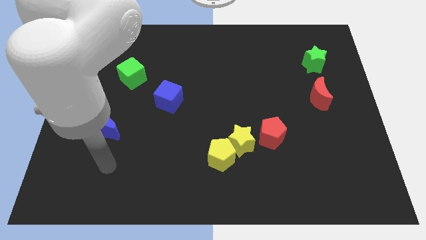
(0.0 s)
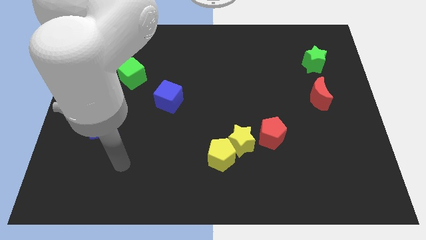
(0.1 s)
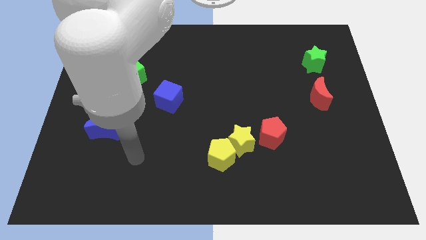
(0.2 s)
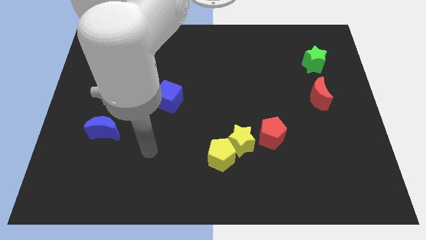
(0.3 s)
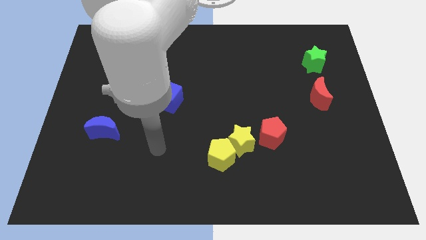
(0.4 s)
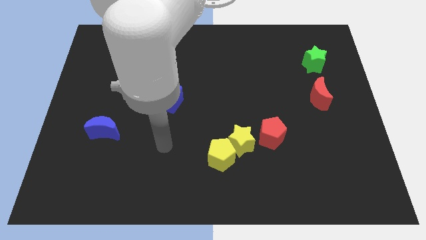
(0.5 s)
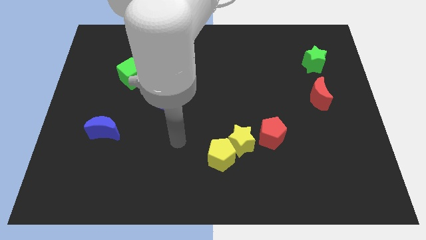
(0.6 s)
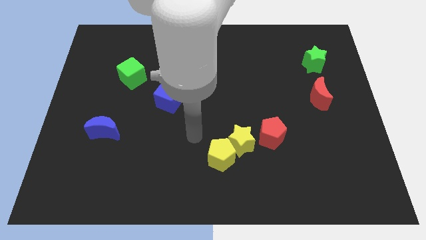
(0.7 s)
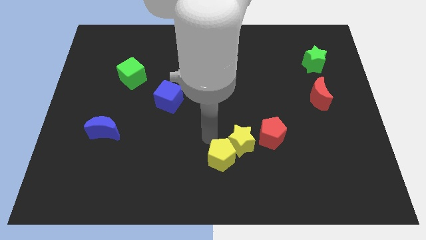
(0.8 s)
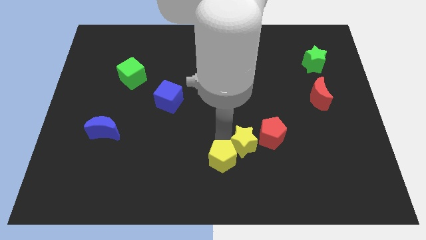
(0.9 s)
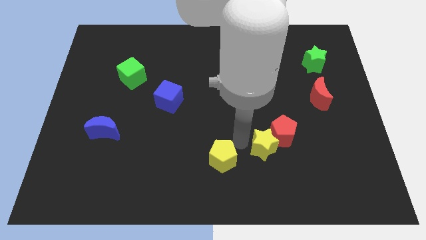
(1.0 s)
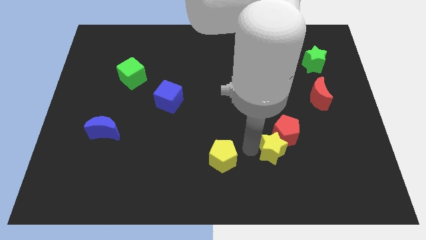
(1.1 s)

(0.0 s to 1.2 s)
separate the yellow pentagon from the yellow star

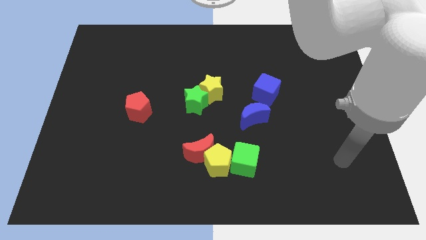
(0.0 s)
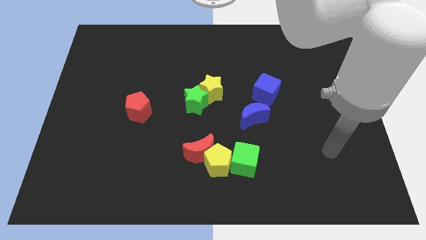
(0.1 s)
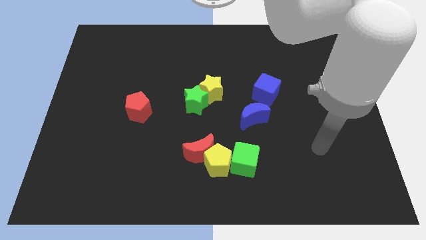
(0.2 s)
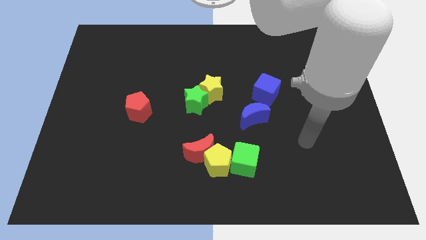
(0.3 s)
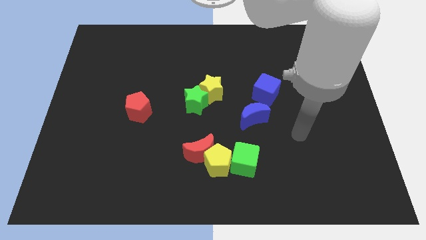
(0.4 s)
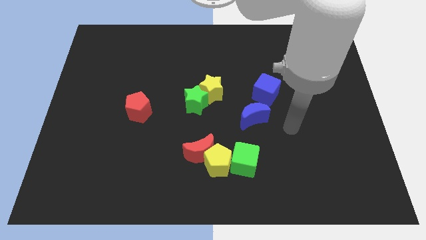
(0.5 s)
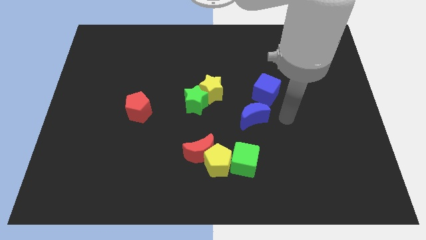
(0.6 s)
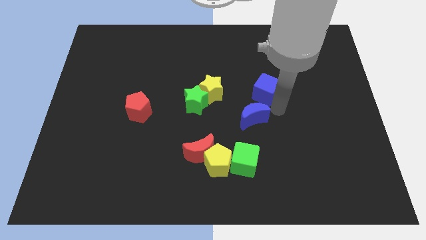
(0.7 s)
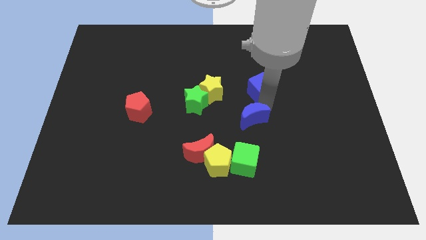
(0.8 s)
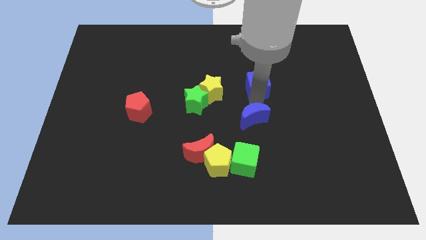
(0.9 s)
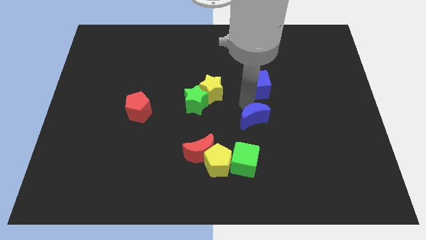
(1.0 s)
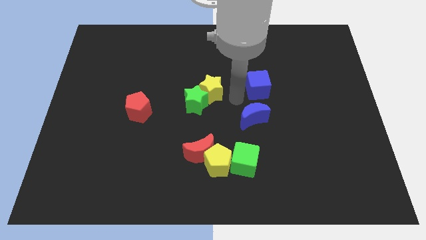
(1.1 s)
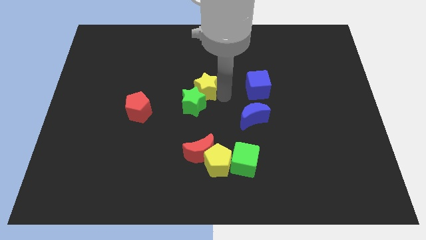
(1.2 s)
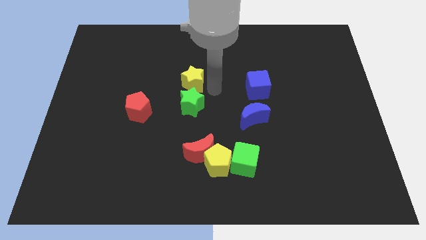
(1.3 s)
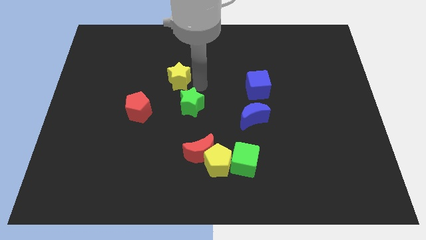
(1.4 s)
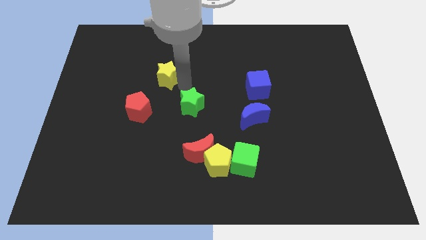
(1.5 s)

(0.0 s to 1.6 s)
separate the green star from the yellow star

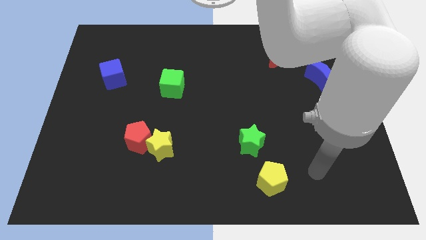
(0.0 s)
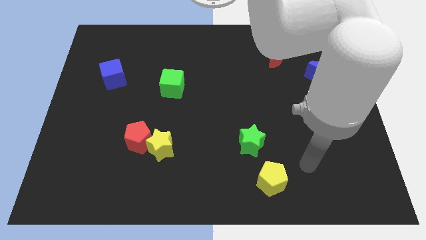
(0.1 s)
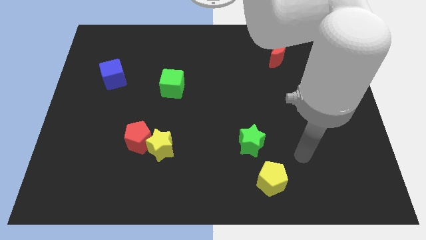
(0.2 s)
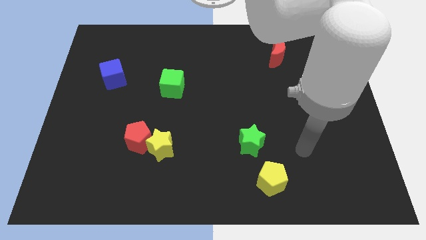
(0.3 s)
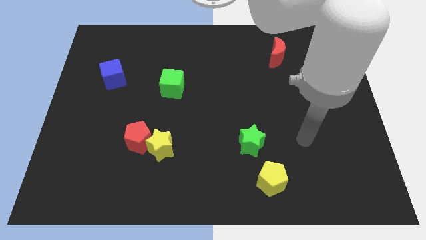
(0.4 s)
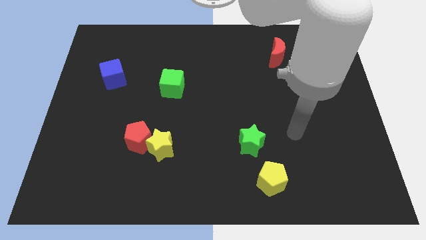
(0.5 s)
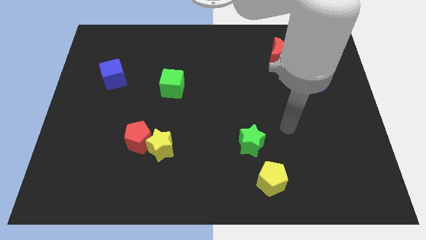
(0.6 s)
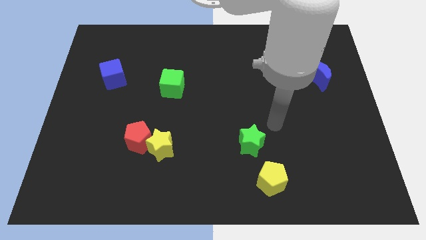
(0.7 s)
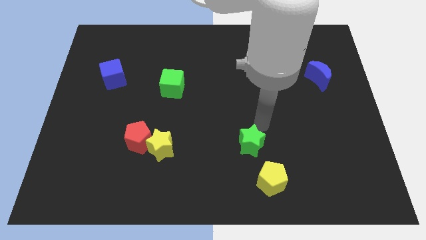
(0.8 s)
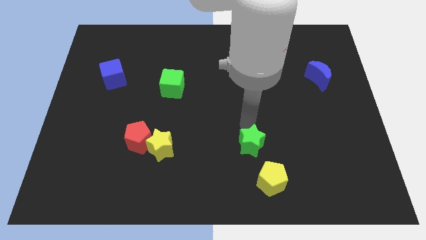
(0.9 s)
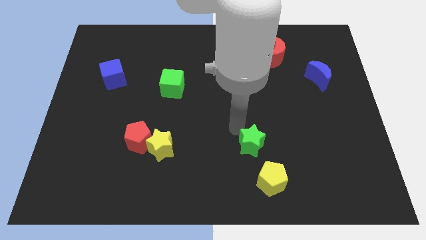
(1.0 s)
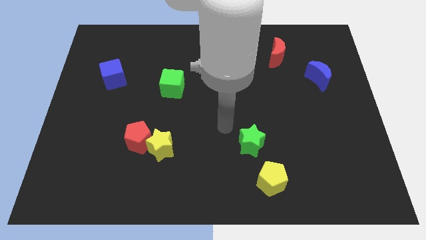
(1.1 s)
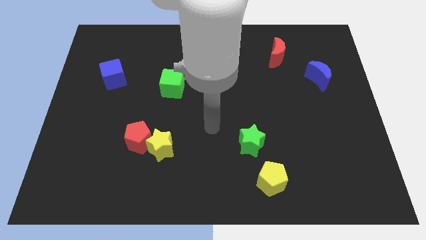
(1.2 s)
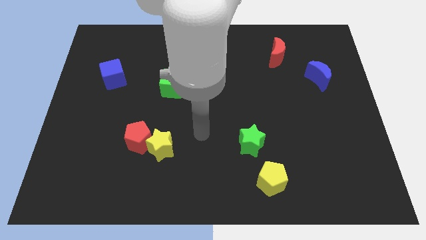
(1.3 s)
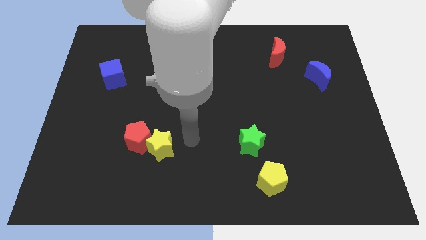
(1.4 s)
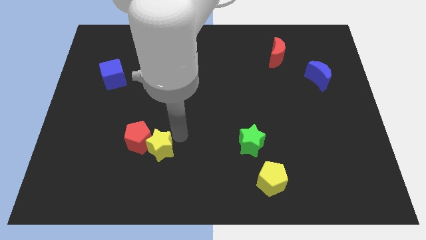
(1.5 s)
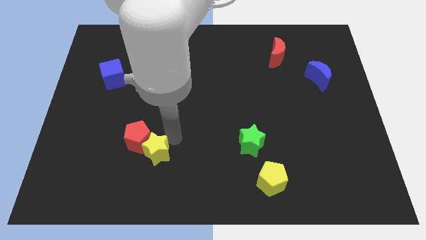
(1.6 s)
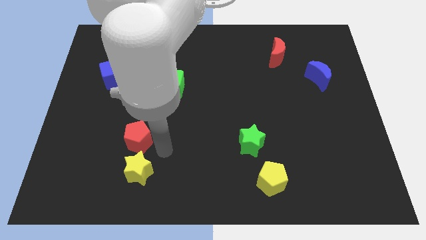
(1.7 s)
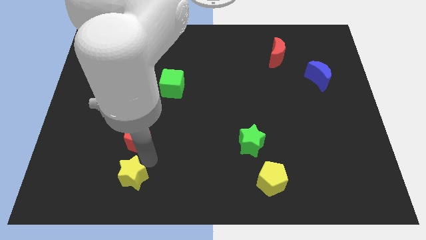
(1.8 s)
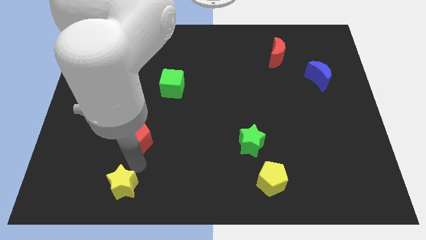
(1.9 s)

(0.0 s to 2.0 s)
pull the red pentagon apart from the yellow star

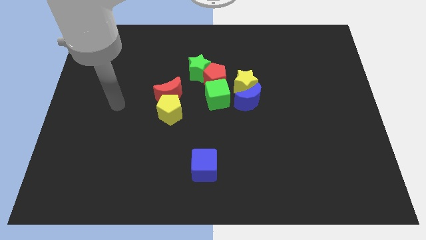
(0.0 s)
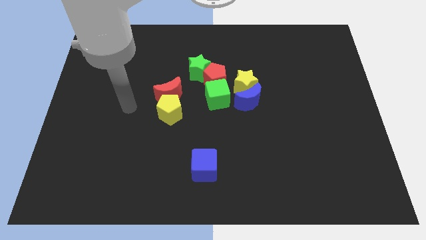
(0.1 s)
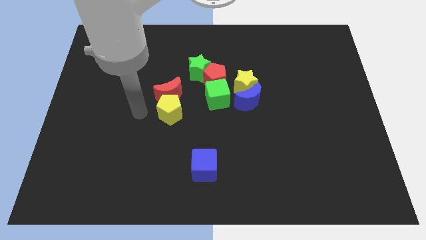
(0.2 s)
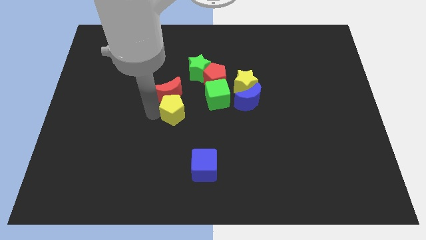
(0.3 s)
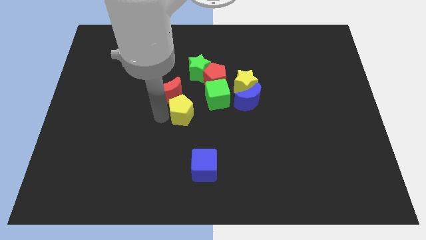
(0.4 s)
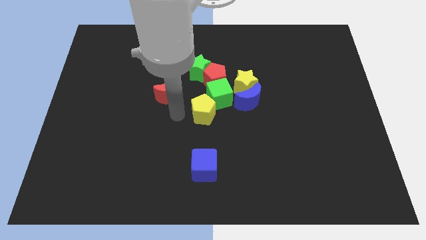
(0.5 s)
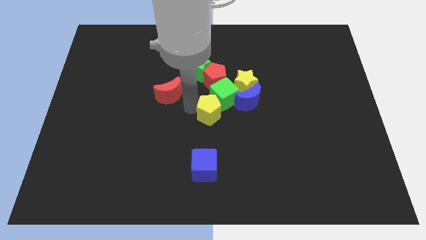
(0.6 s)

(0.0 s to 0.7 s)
pull the red moon apart from the yellow pentagon

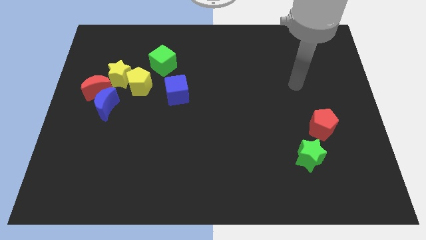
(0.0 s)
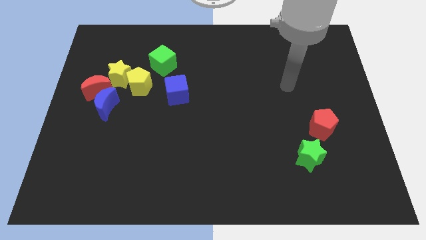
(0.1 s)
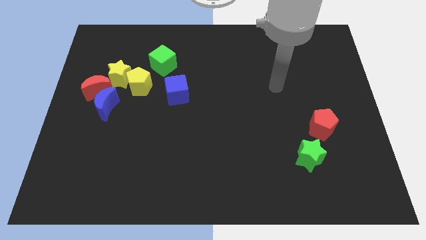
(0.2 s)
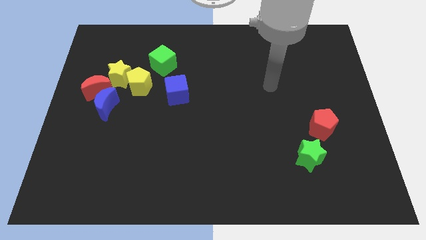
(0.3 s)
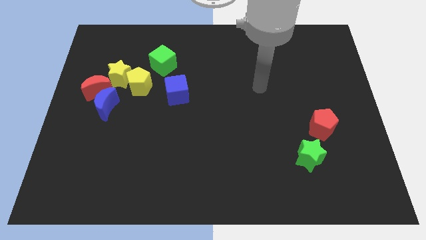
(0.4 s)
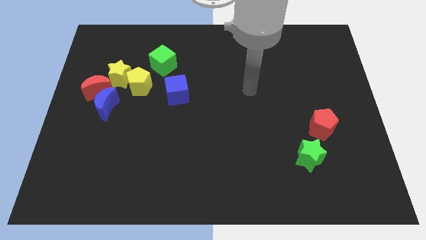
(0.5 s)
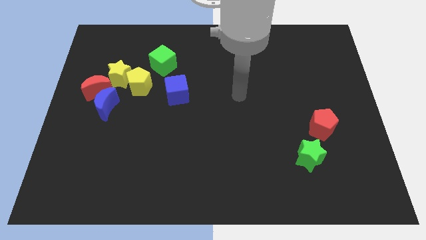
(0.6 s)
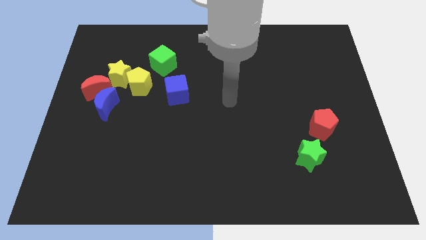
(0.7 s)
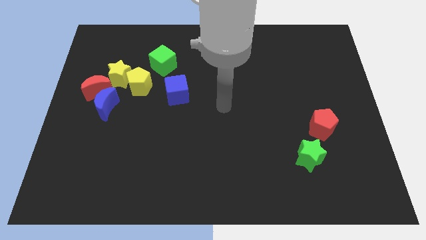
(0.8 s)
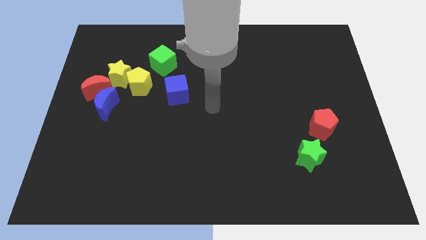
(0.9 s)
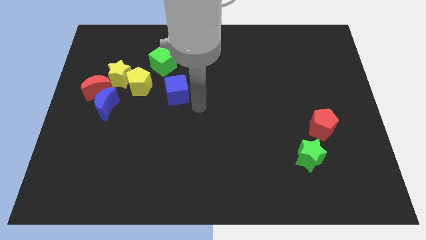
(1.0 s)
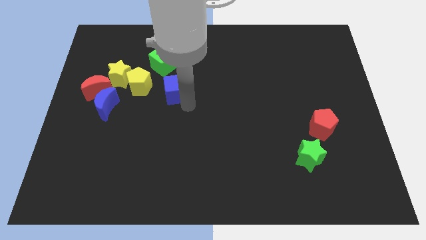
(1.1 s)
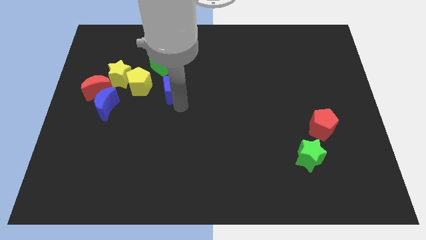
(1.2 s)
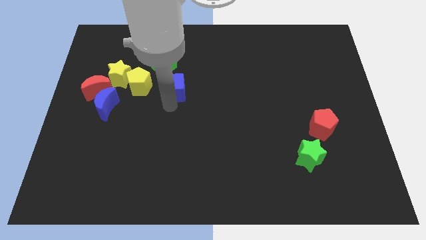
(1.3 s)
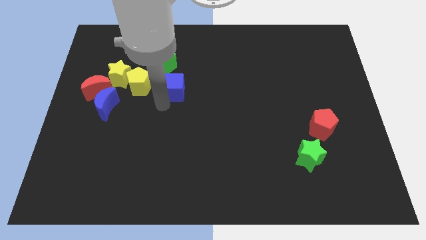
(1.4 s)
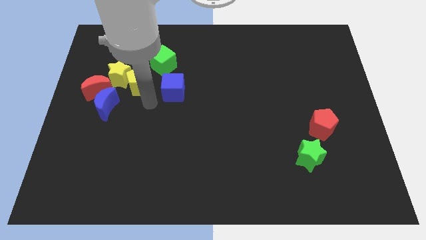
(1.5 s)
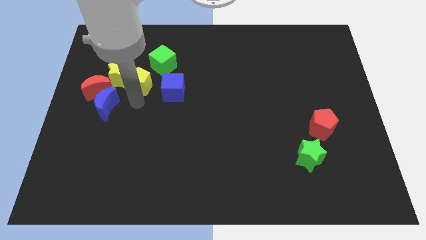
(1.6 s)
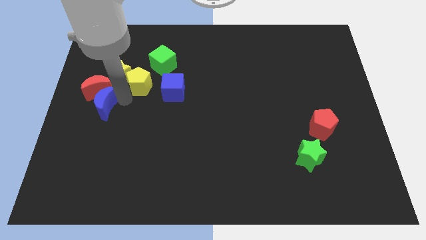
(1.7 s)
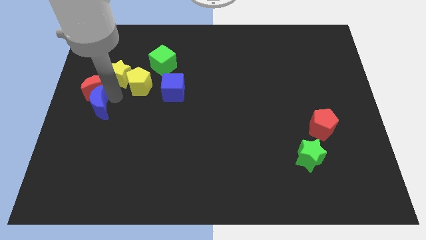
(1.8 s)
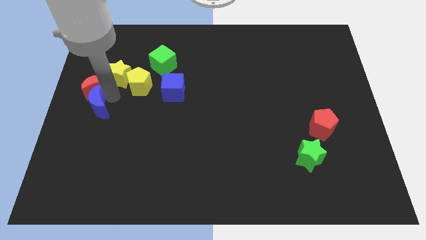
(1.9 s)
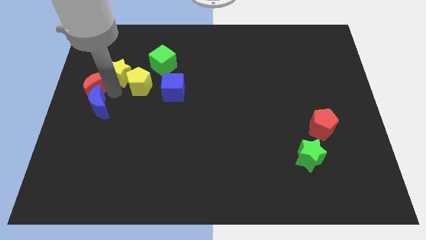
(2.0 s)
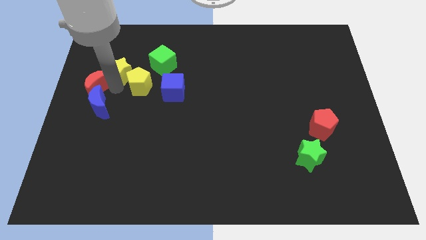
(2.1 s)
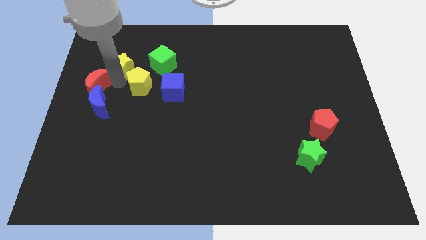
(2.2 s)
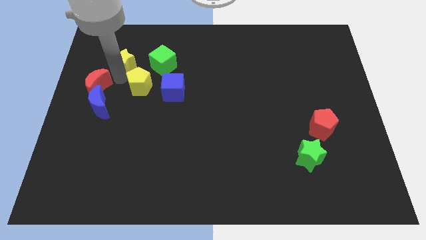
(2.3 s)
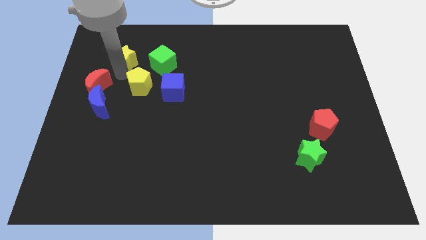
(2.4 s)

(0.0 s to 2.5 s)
move the yellow star away from the clump

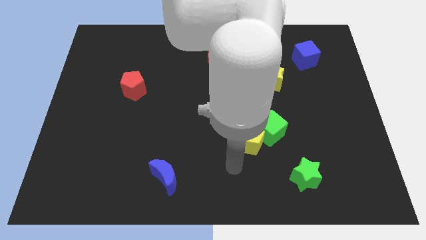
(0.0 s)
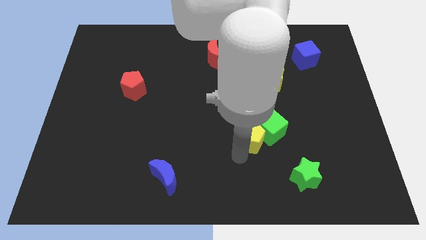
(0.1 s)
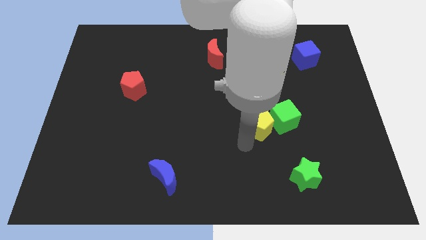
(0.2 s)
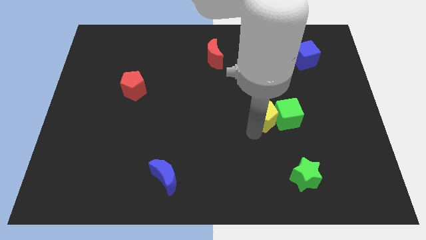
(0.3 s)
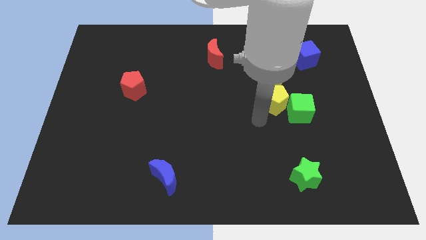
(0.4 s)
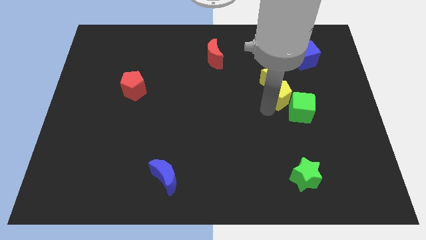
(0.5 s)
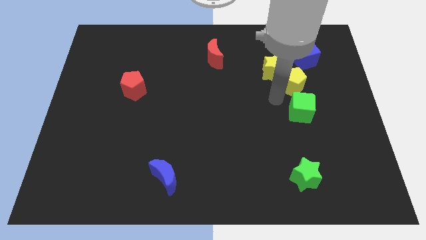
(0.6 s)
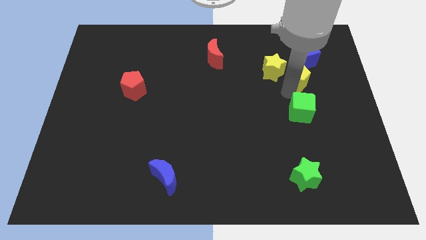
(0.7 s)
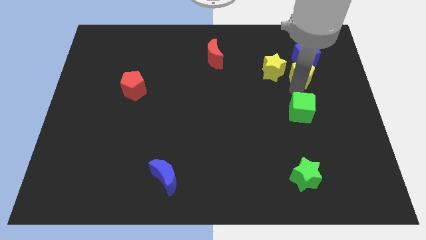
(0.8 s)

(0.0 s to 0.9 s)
pull the green cube apart from the yellow pentagon

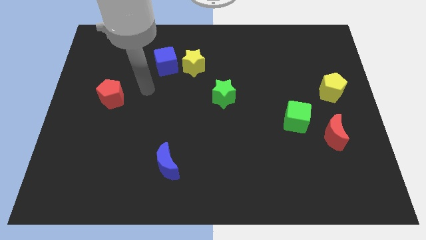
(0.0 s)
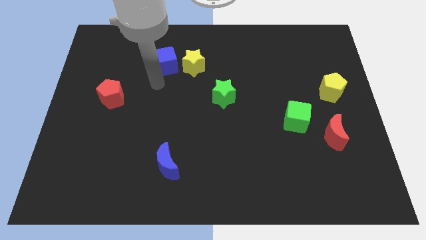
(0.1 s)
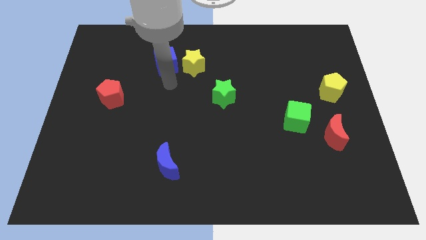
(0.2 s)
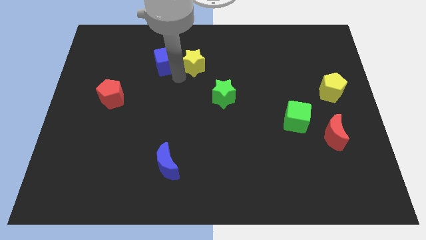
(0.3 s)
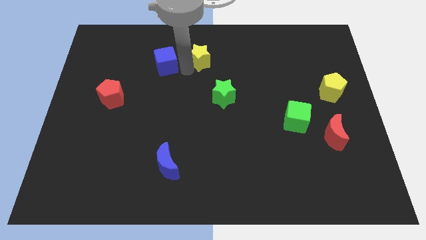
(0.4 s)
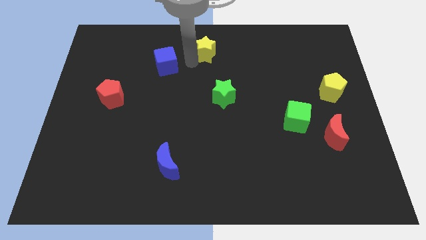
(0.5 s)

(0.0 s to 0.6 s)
separate the blue cube from the yellow star
